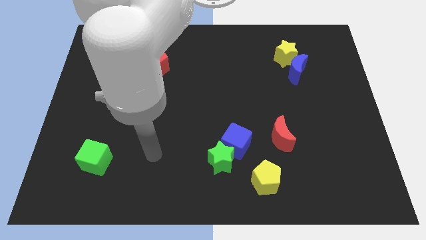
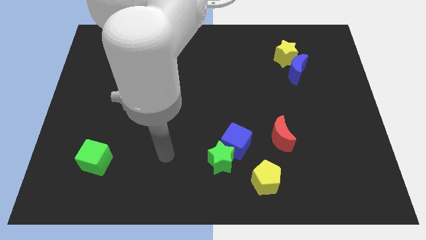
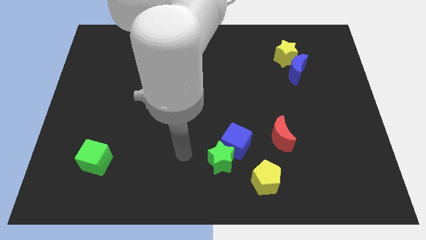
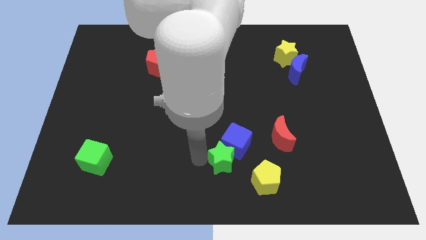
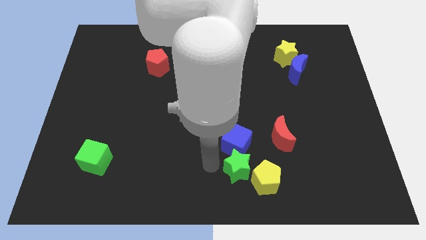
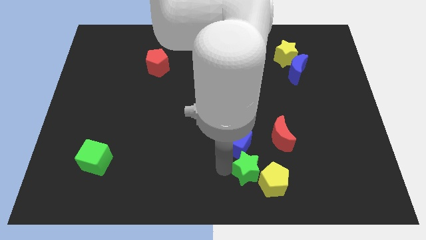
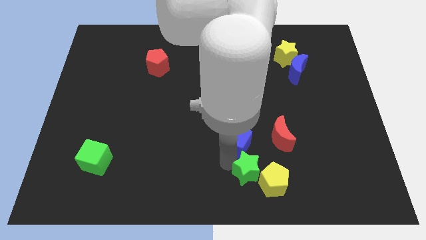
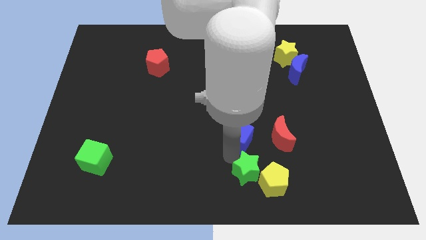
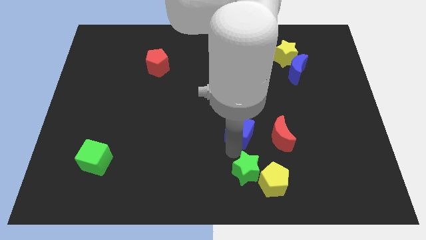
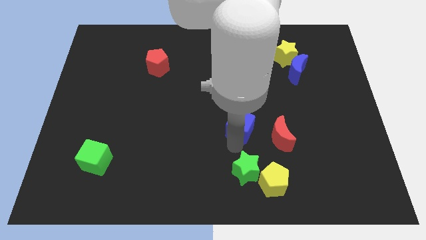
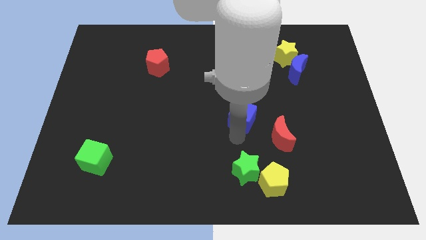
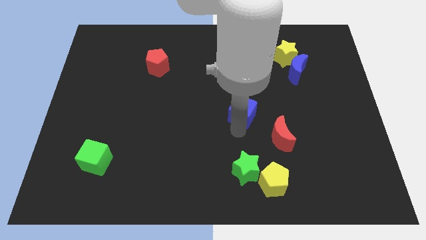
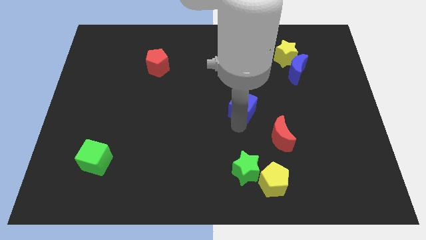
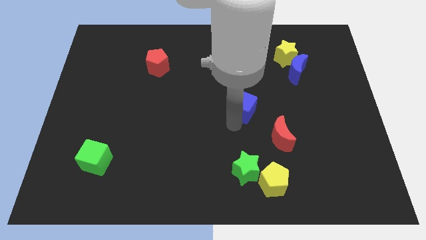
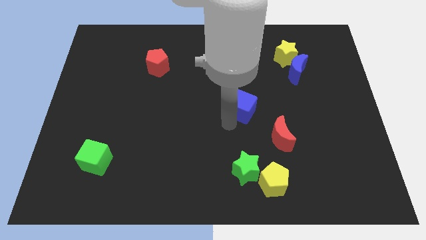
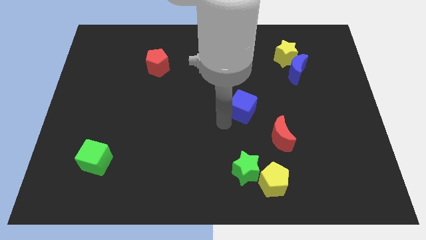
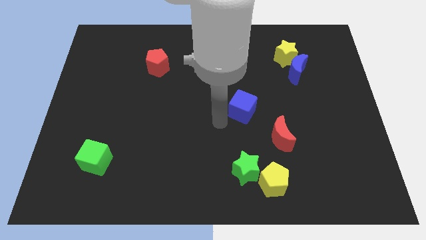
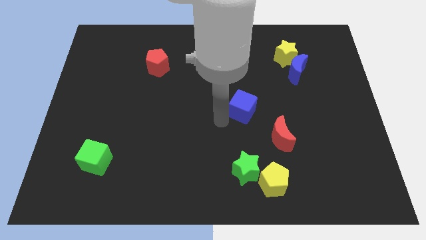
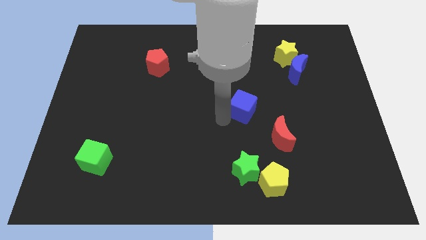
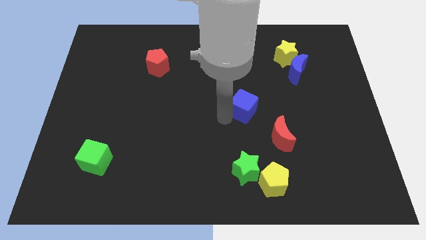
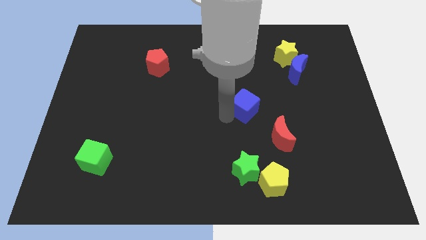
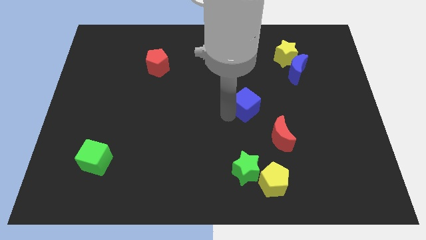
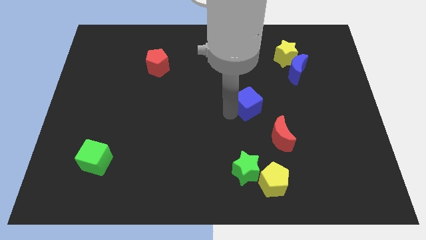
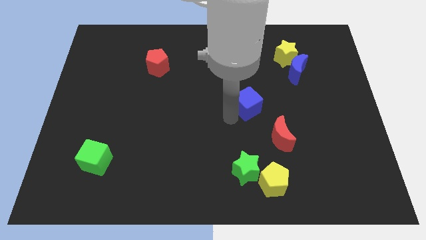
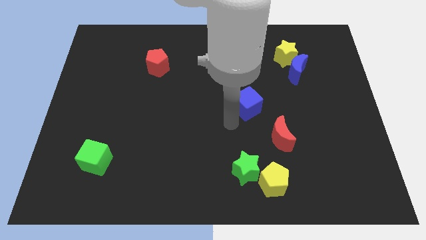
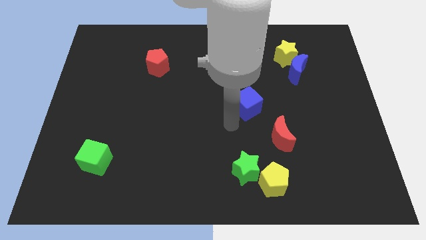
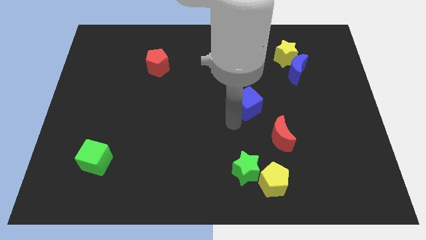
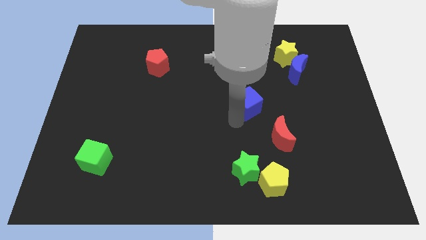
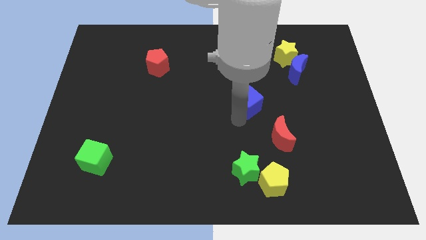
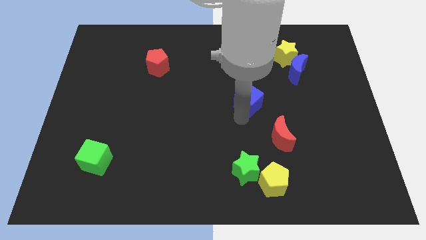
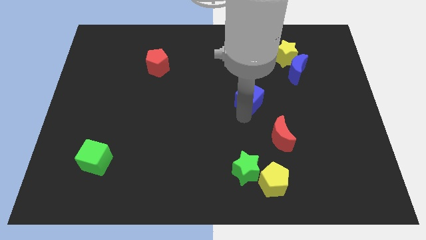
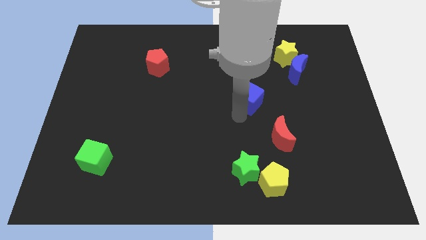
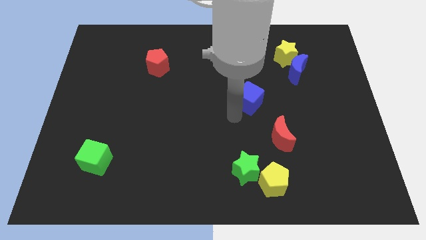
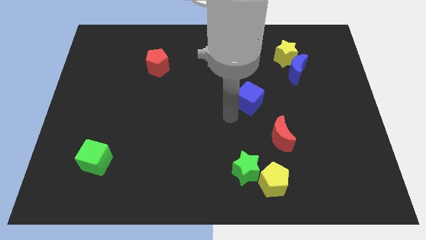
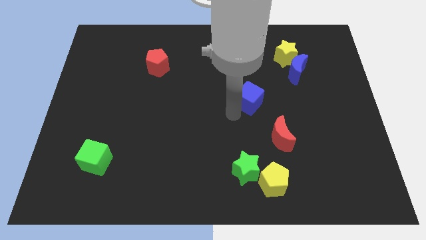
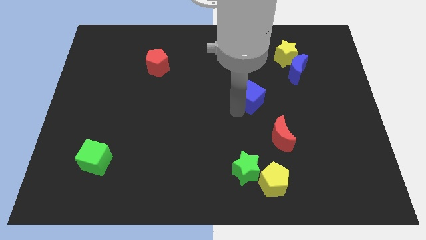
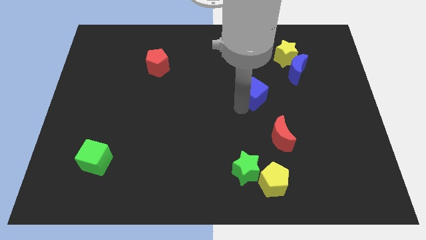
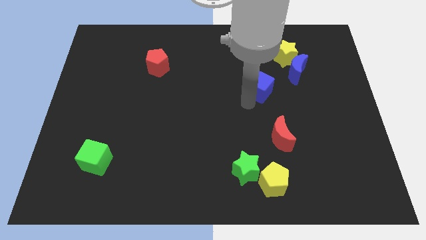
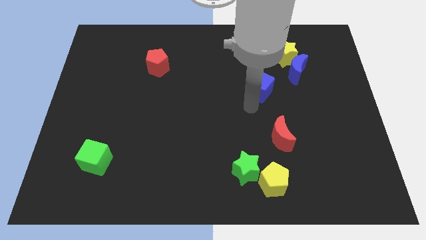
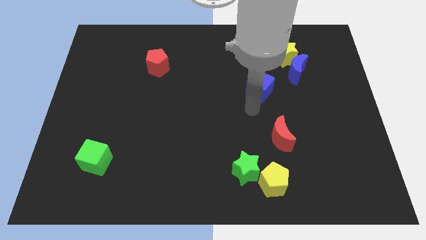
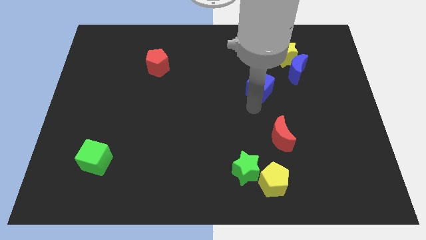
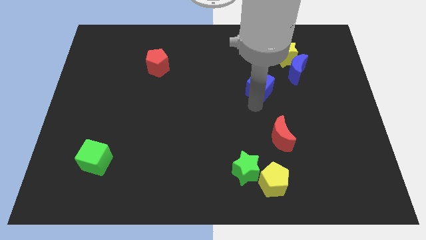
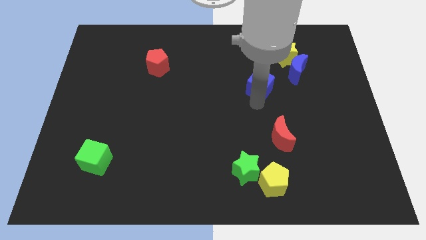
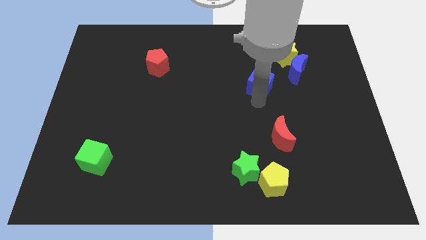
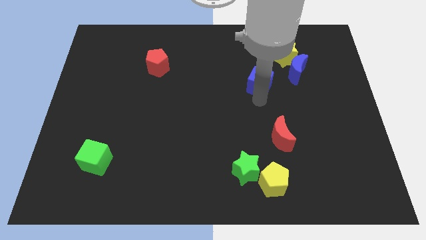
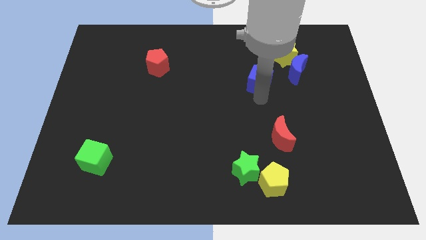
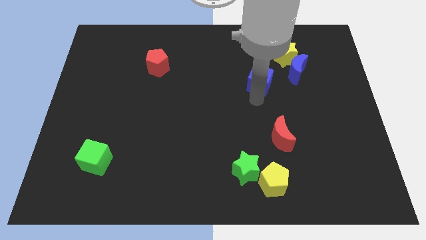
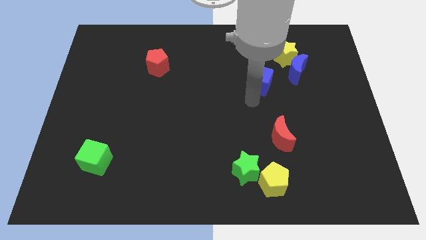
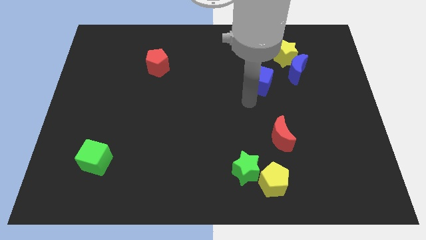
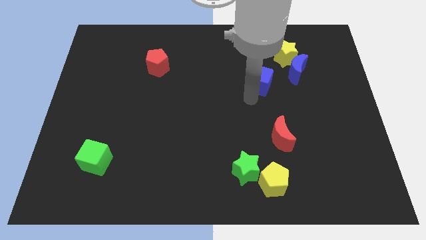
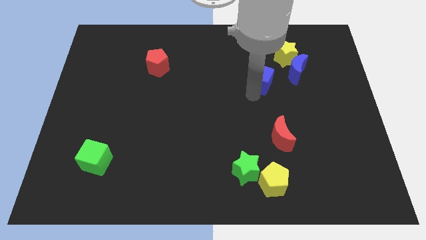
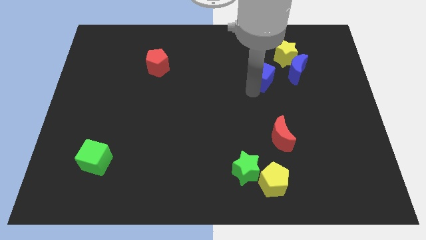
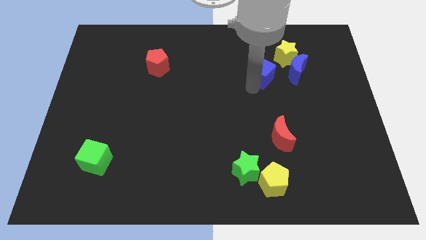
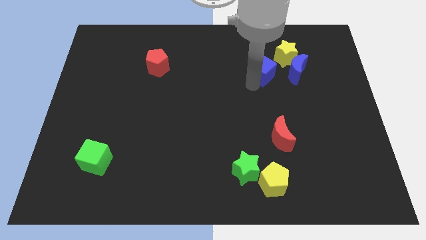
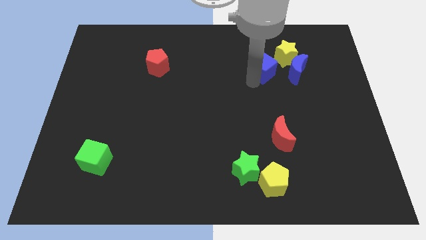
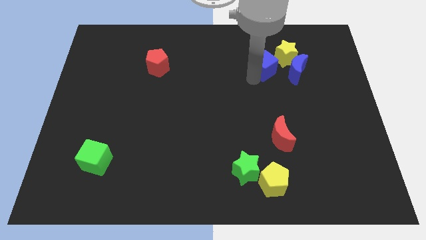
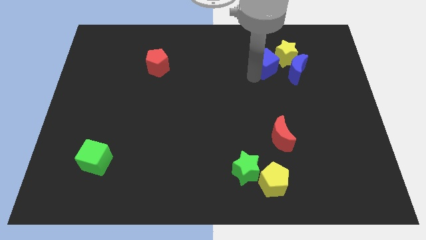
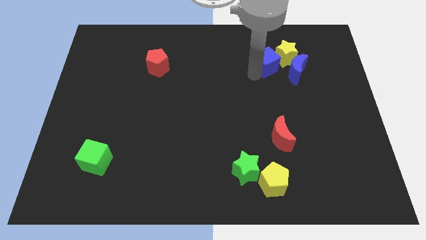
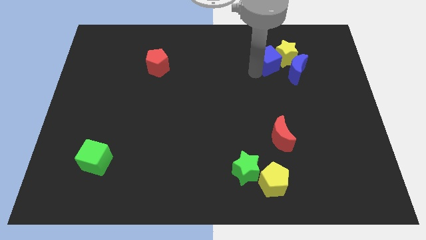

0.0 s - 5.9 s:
put the blue cube close to the yellow star

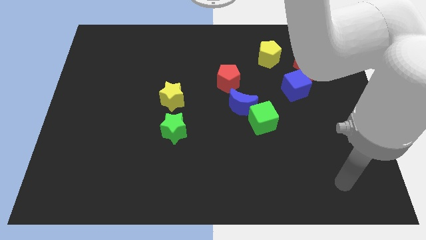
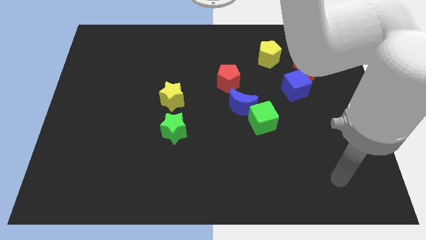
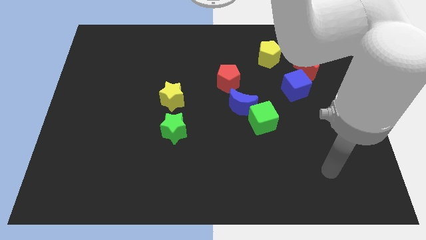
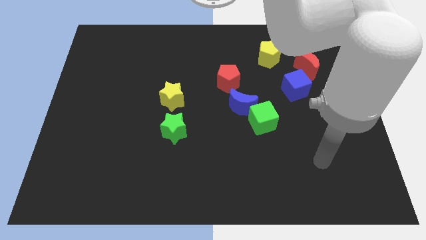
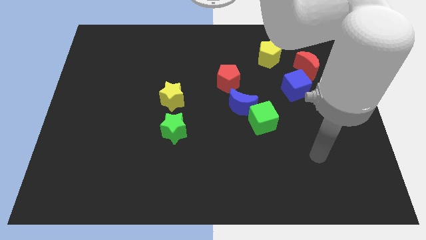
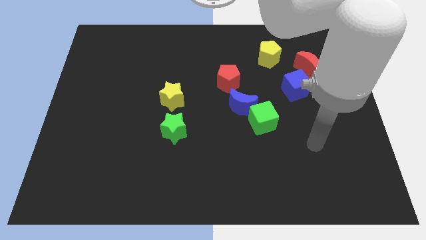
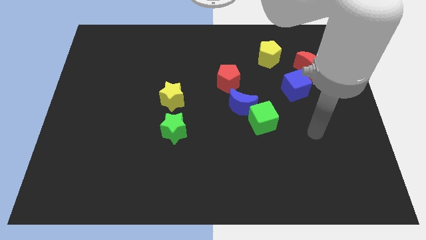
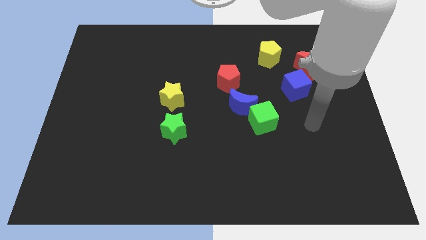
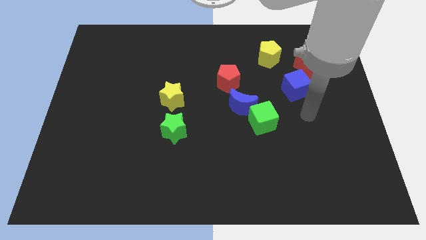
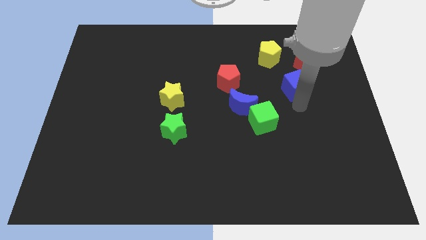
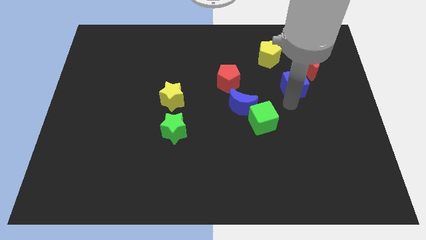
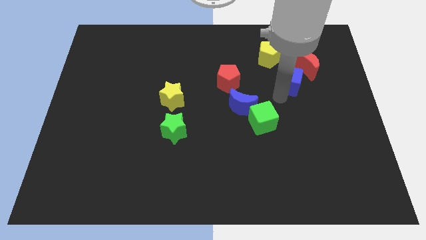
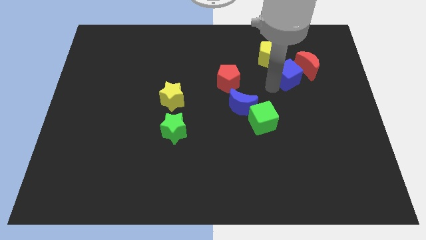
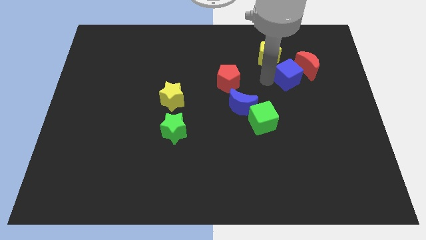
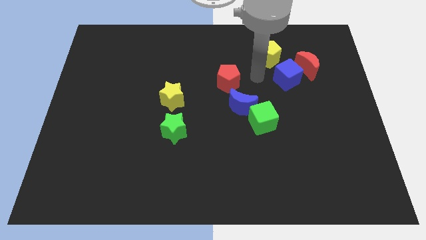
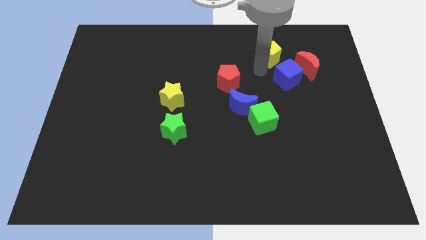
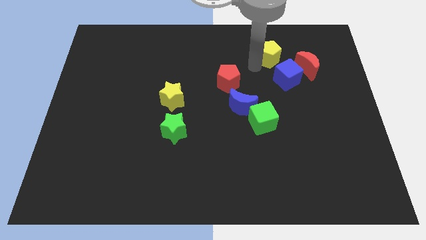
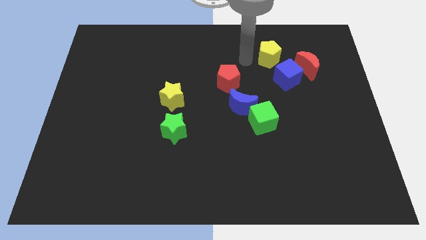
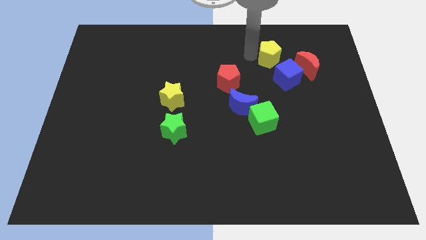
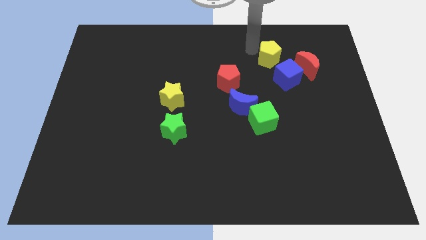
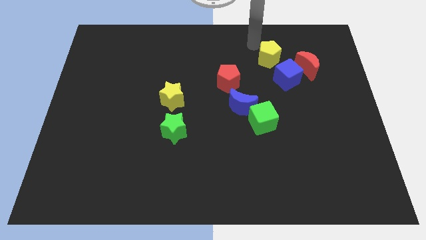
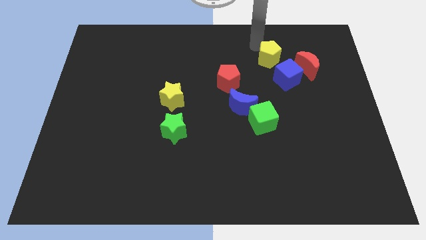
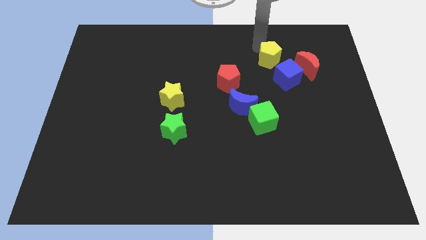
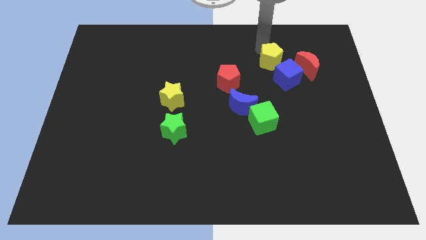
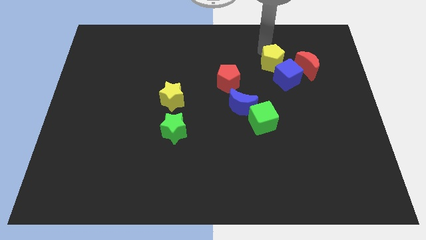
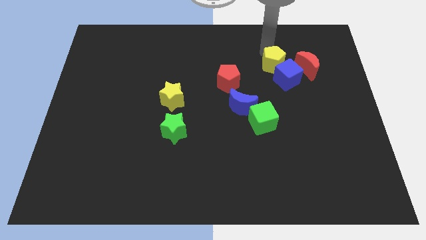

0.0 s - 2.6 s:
put the yellow pentagon to the blue cube
